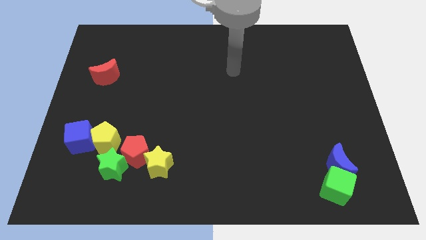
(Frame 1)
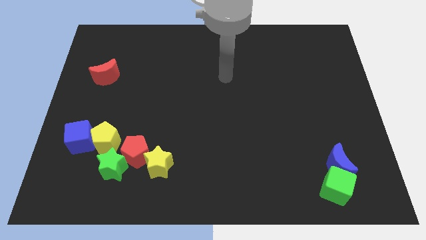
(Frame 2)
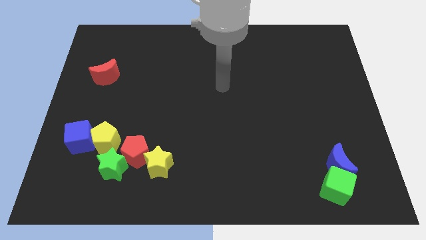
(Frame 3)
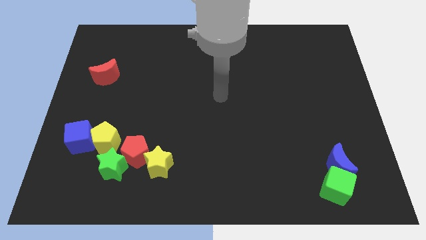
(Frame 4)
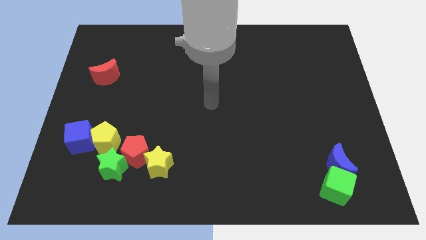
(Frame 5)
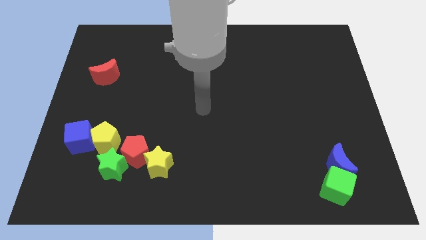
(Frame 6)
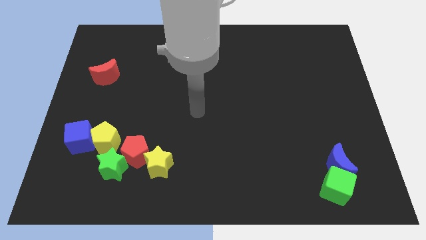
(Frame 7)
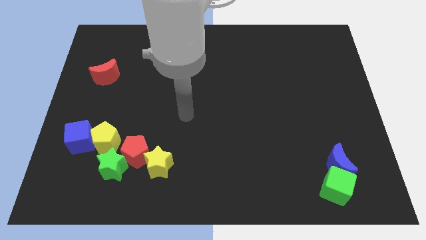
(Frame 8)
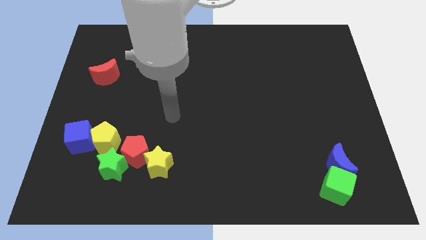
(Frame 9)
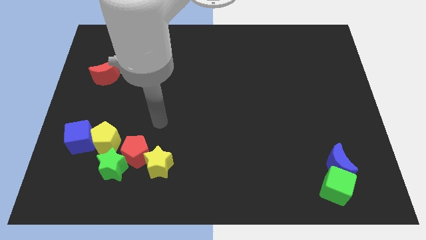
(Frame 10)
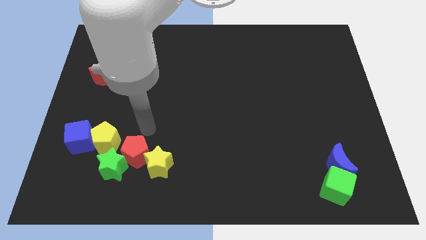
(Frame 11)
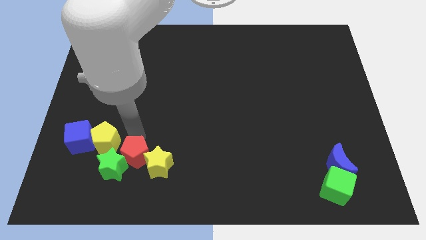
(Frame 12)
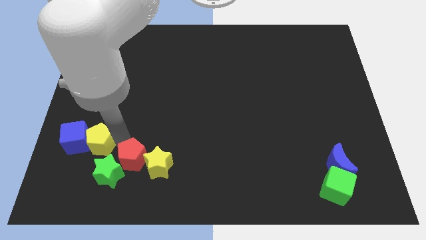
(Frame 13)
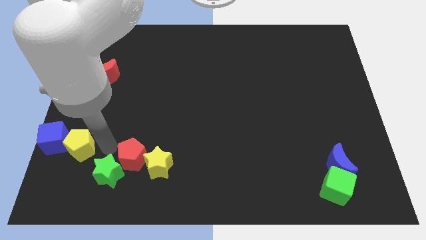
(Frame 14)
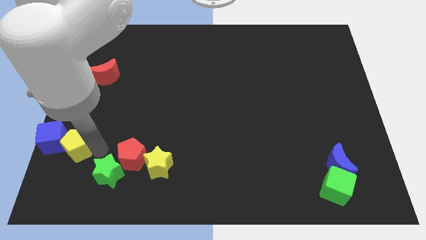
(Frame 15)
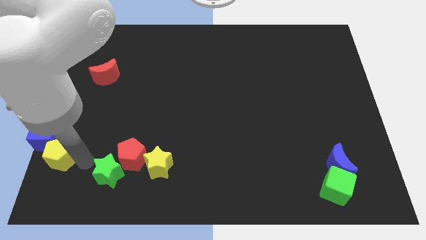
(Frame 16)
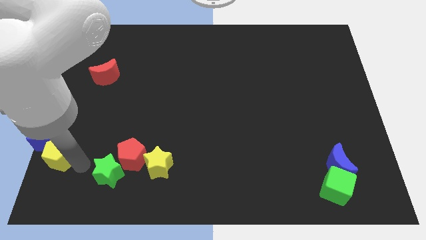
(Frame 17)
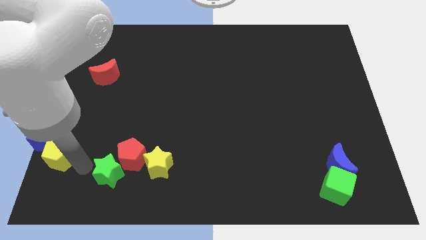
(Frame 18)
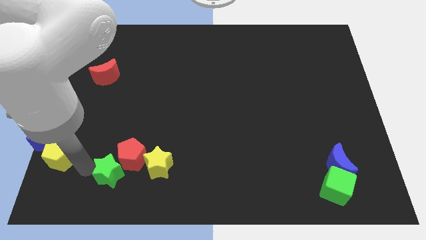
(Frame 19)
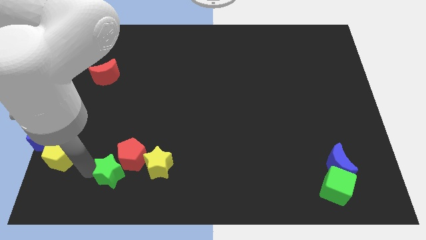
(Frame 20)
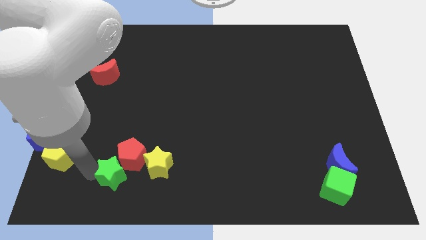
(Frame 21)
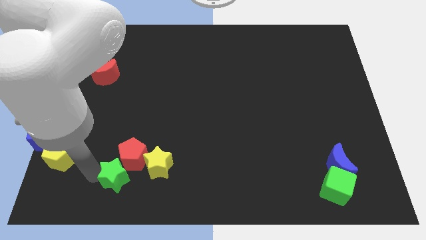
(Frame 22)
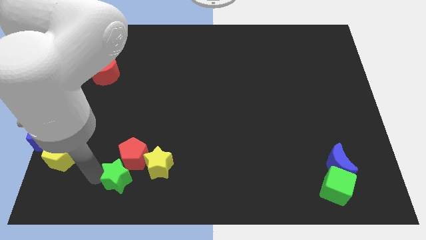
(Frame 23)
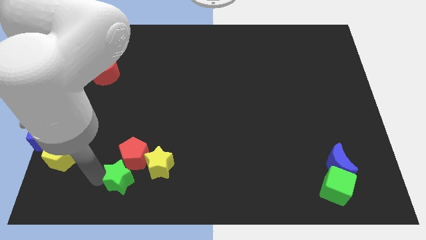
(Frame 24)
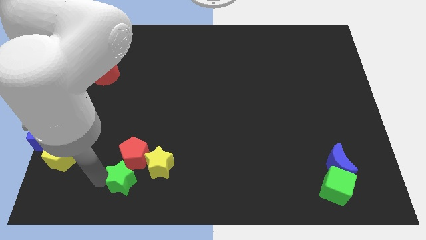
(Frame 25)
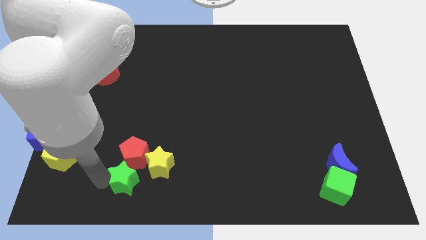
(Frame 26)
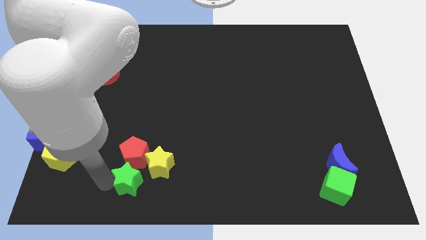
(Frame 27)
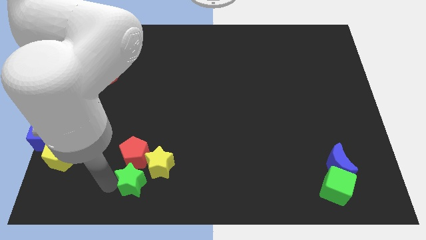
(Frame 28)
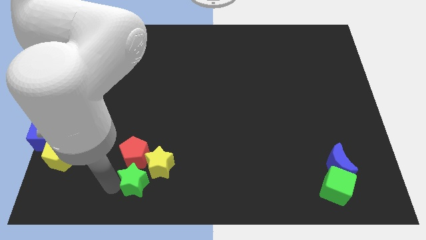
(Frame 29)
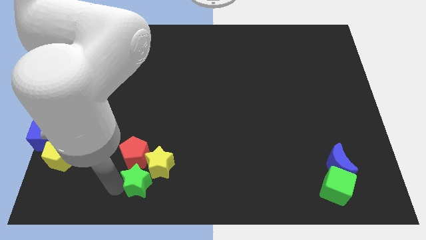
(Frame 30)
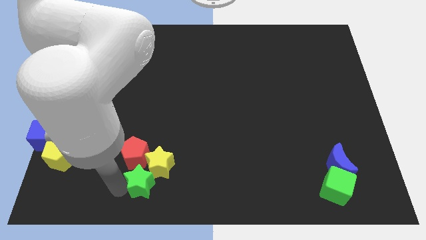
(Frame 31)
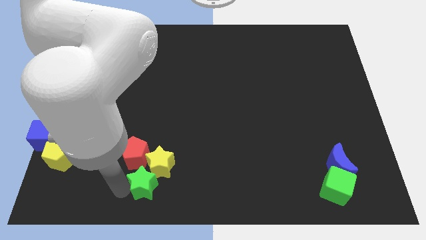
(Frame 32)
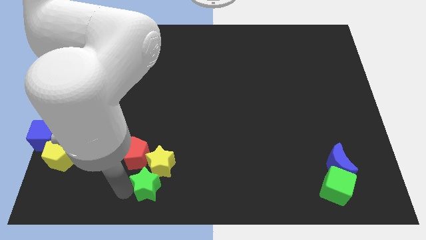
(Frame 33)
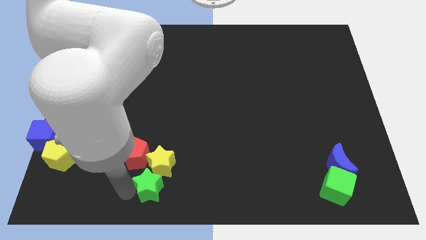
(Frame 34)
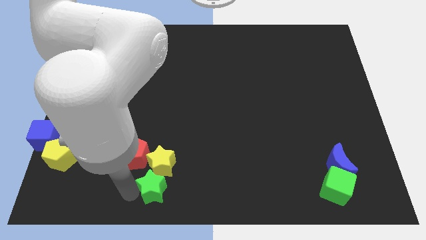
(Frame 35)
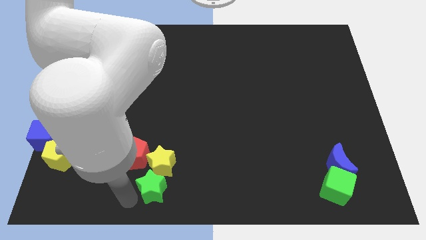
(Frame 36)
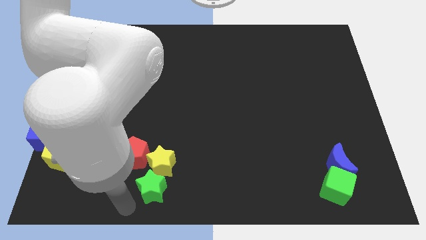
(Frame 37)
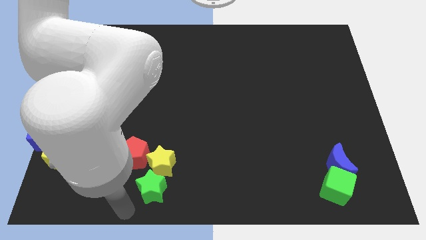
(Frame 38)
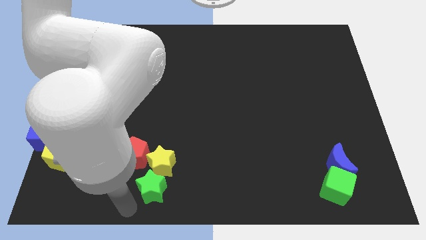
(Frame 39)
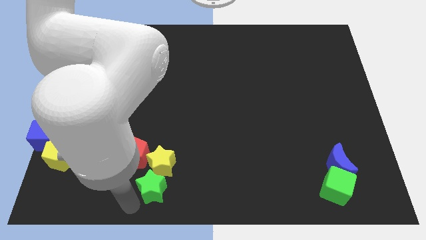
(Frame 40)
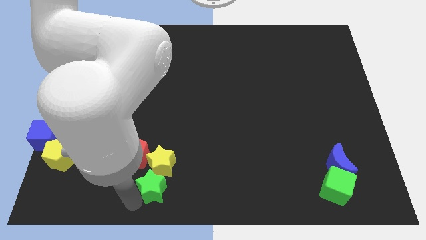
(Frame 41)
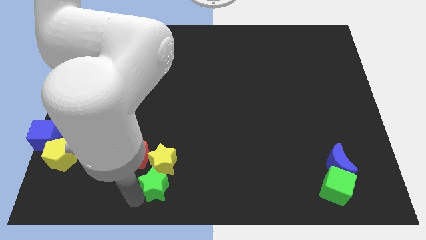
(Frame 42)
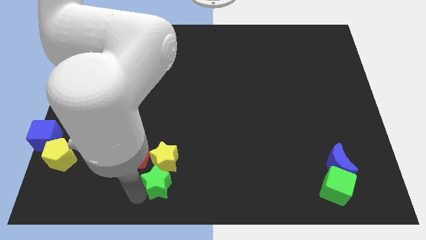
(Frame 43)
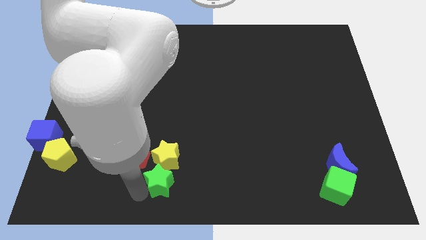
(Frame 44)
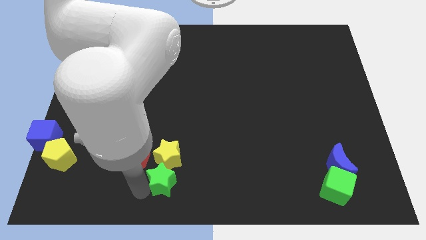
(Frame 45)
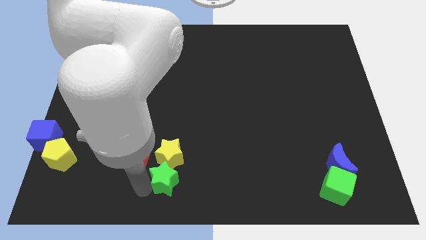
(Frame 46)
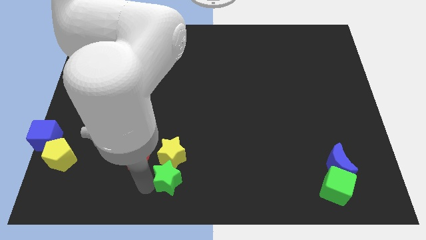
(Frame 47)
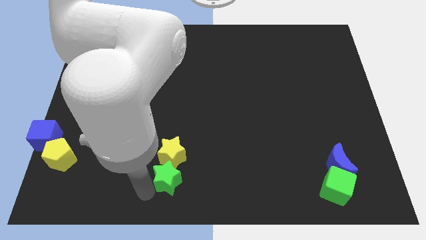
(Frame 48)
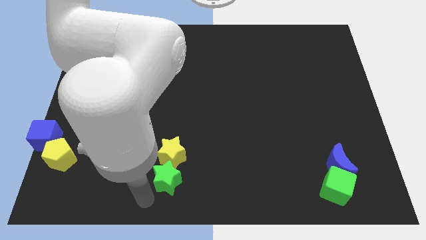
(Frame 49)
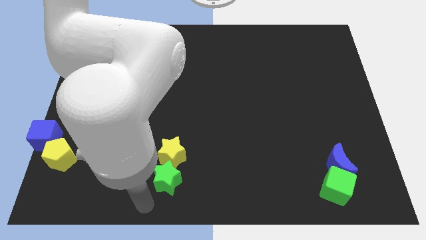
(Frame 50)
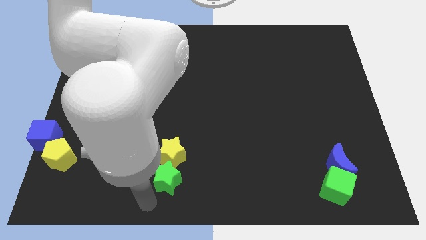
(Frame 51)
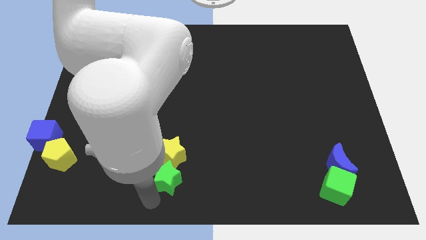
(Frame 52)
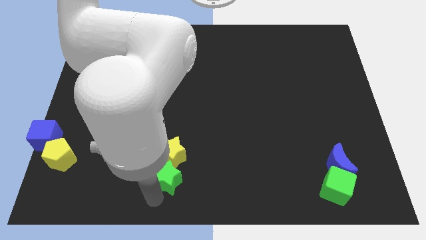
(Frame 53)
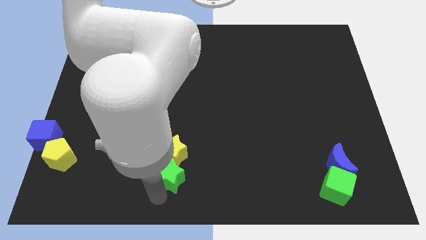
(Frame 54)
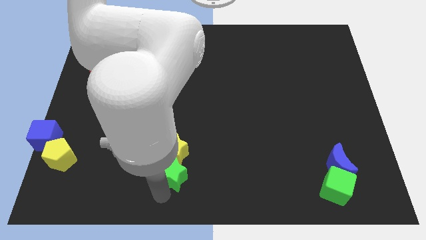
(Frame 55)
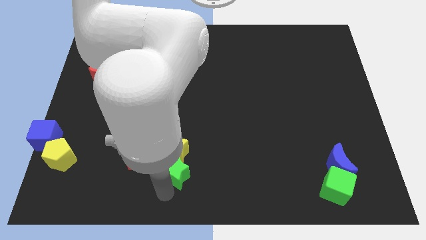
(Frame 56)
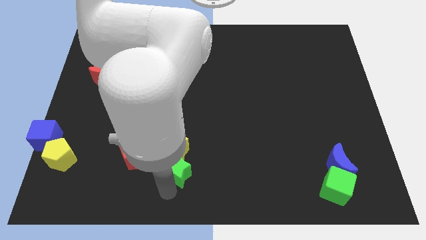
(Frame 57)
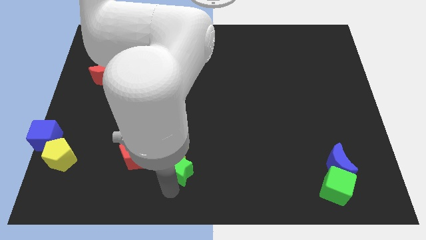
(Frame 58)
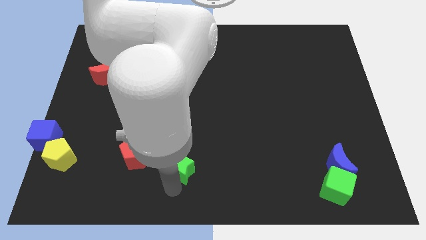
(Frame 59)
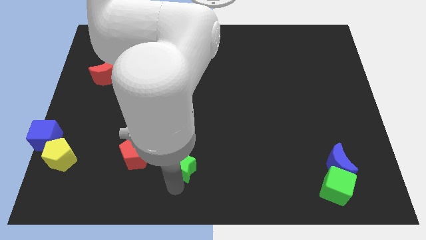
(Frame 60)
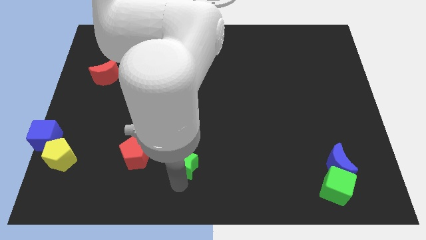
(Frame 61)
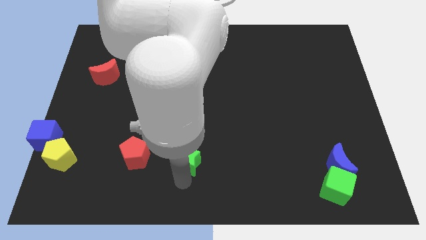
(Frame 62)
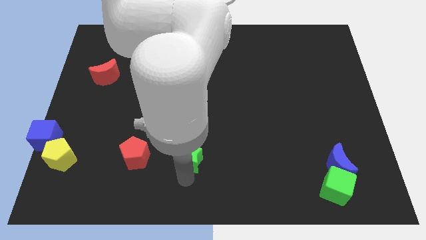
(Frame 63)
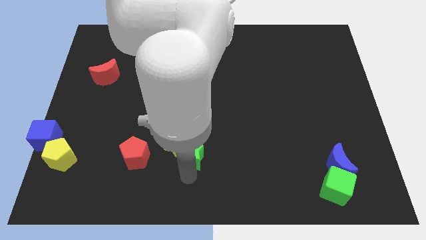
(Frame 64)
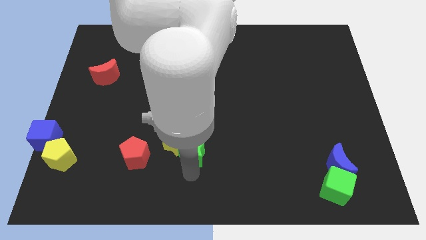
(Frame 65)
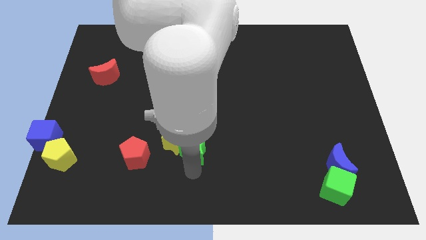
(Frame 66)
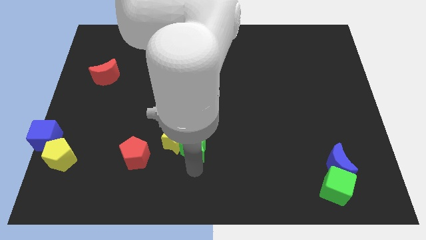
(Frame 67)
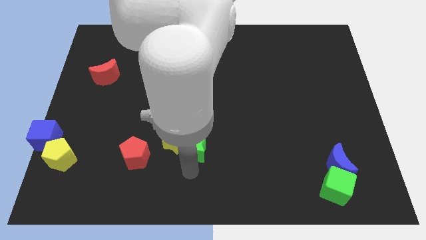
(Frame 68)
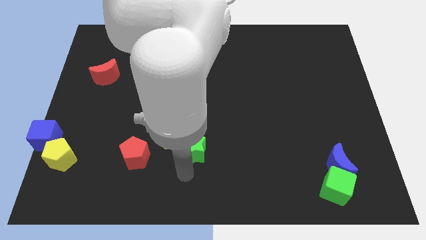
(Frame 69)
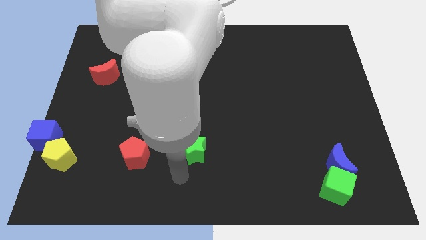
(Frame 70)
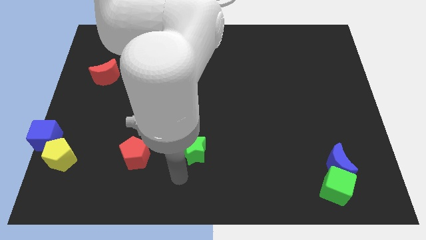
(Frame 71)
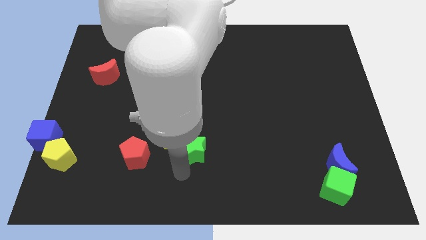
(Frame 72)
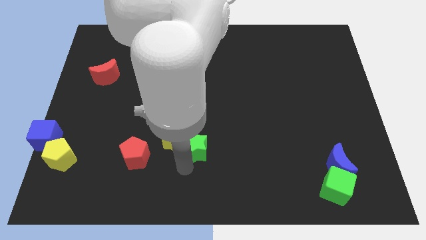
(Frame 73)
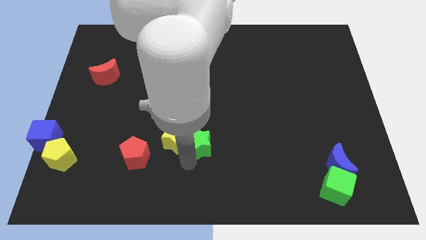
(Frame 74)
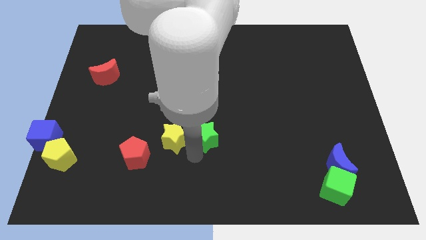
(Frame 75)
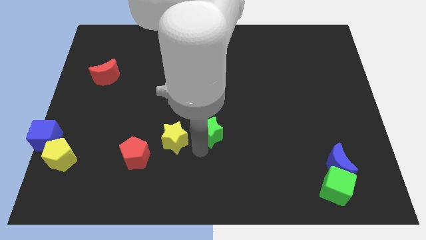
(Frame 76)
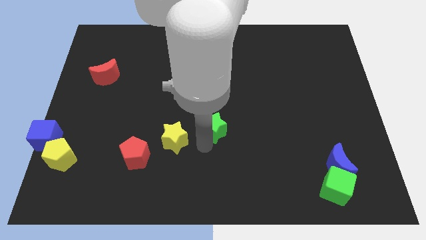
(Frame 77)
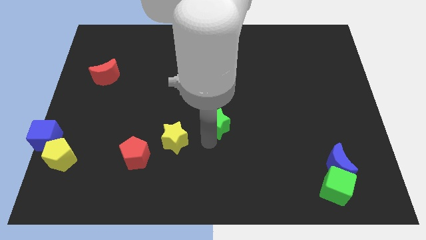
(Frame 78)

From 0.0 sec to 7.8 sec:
slide the green star diagonally up and to the right

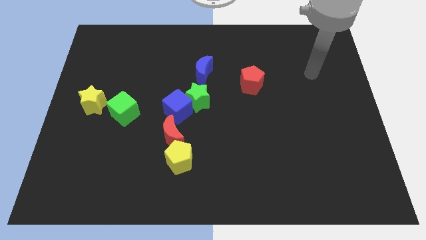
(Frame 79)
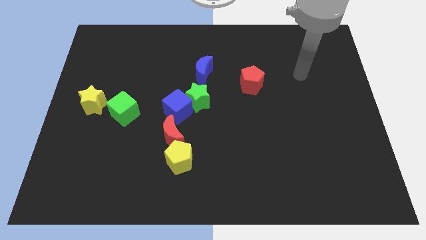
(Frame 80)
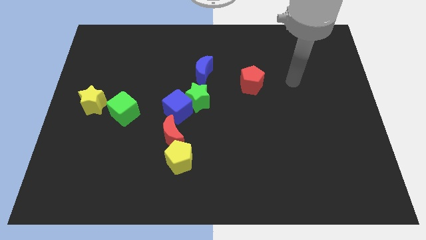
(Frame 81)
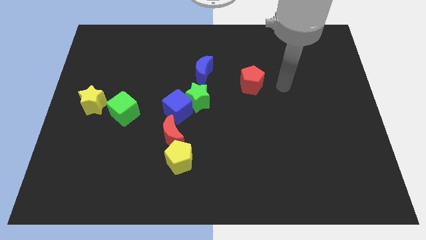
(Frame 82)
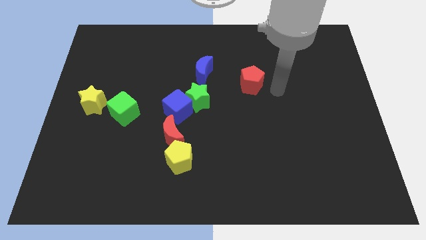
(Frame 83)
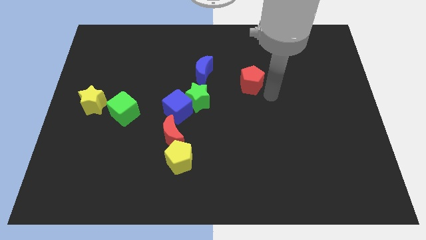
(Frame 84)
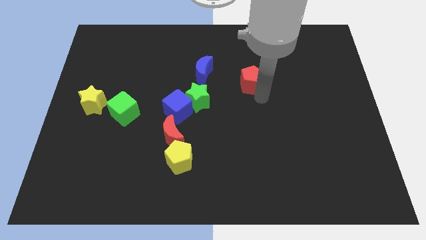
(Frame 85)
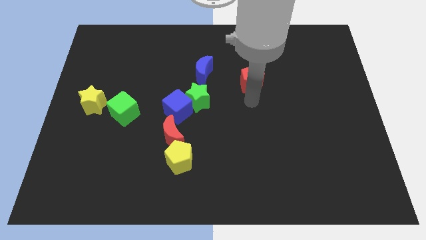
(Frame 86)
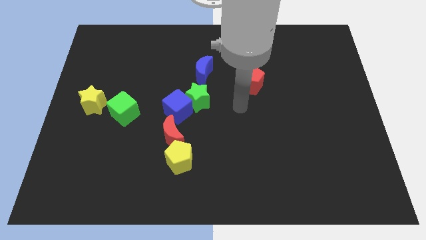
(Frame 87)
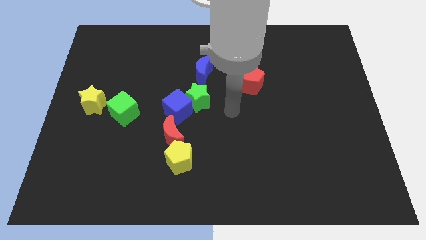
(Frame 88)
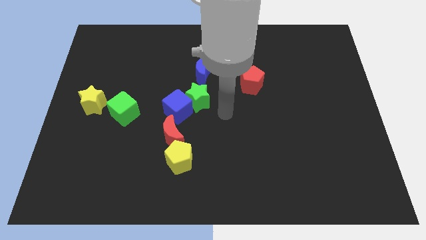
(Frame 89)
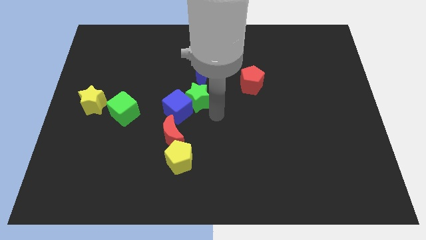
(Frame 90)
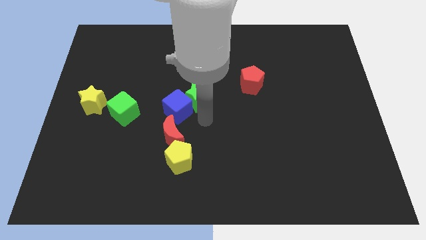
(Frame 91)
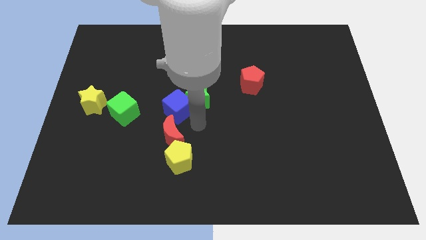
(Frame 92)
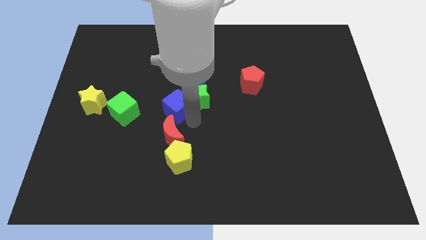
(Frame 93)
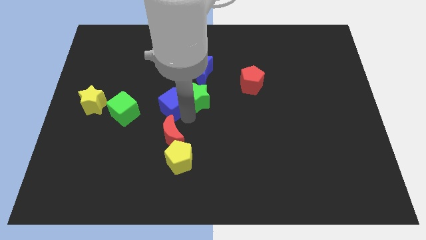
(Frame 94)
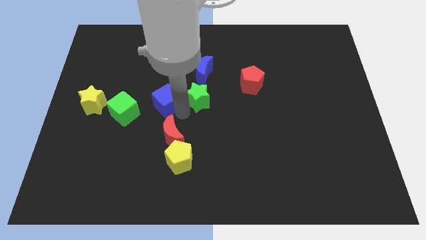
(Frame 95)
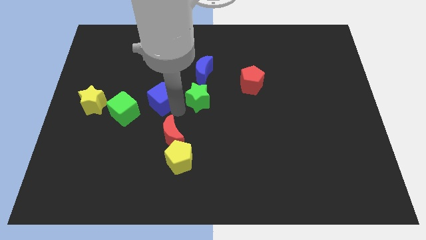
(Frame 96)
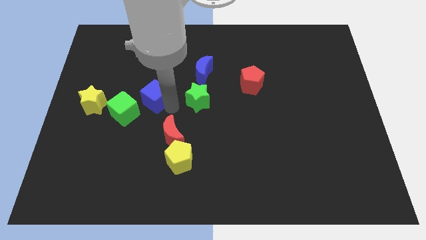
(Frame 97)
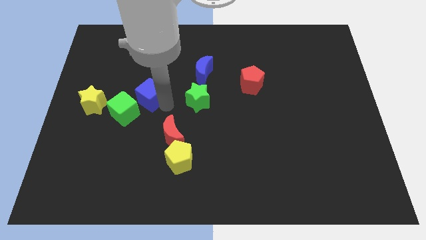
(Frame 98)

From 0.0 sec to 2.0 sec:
move the blue cube up and then left a little
